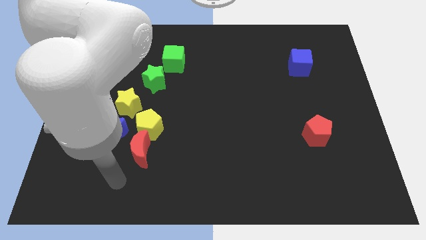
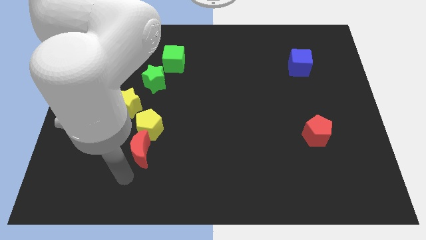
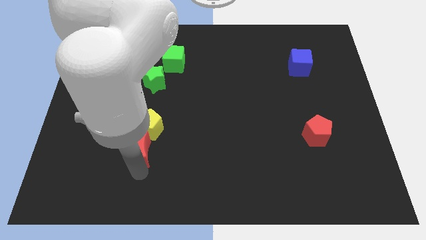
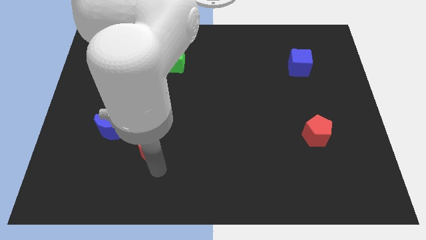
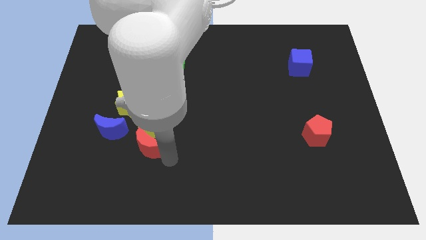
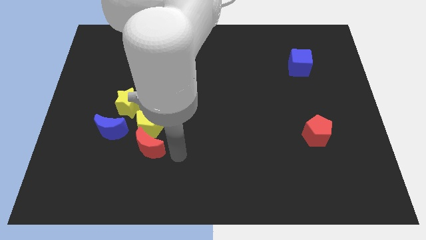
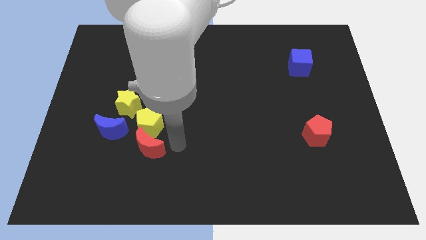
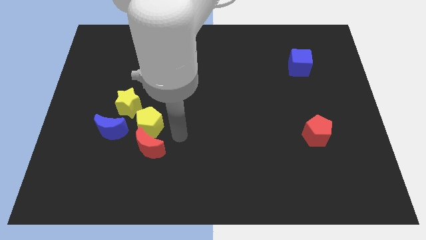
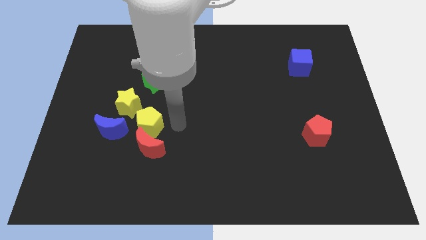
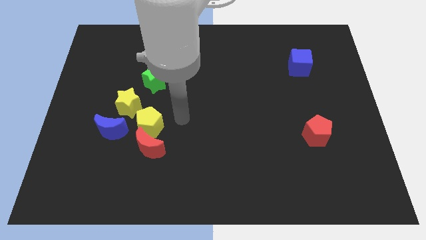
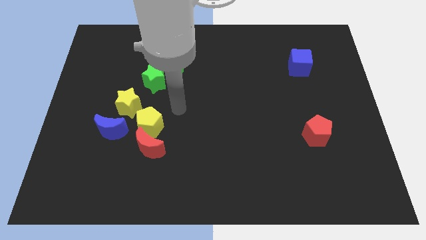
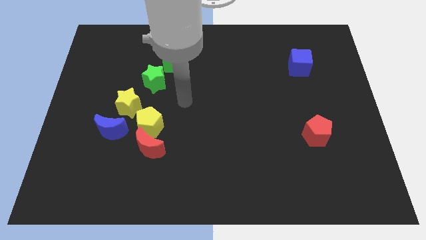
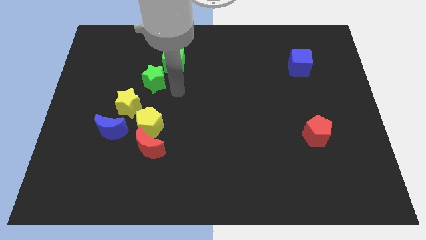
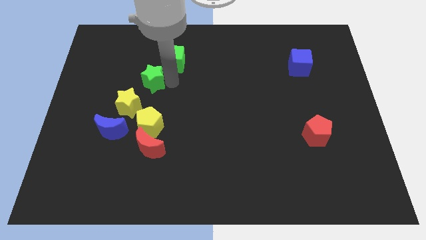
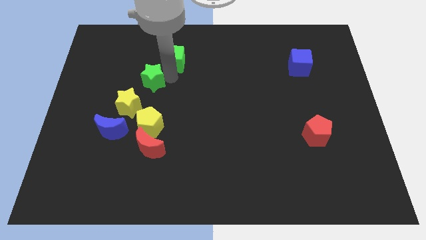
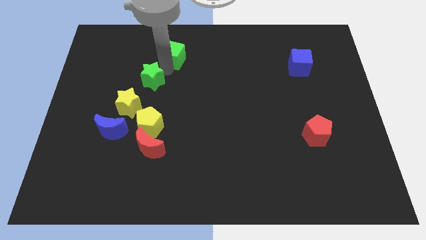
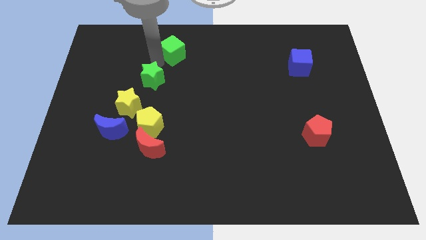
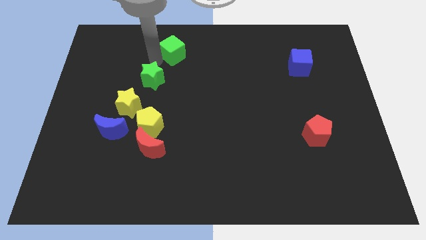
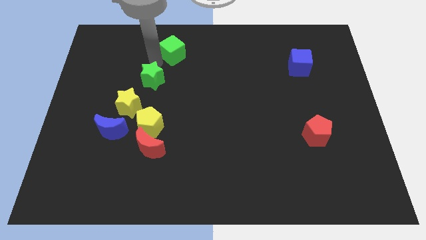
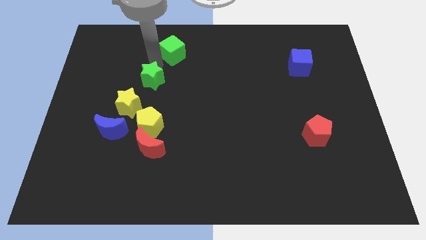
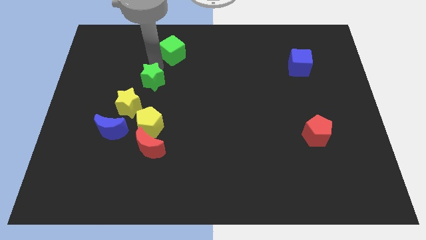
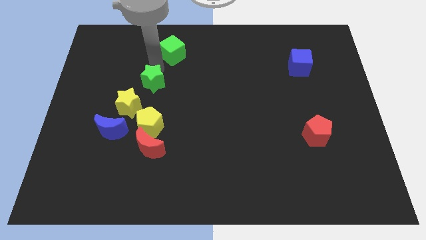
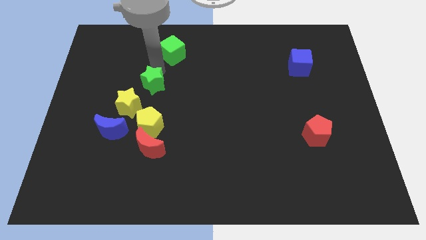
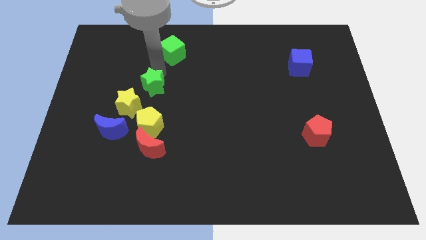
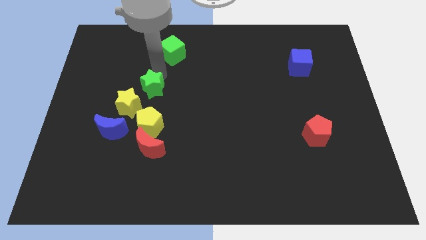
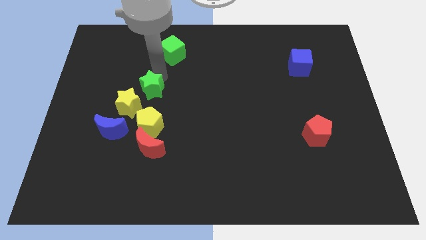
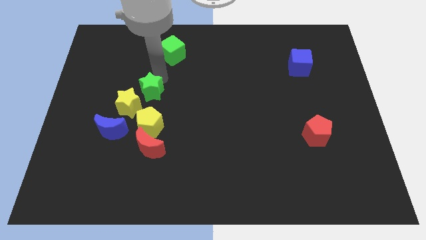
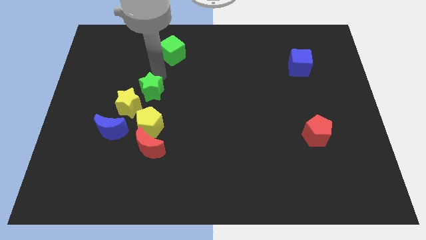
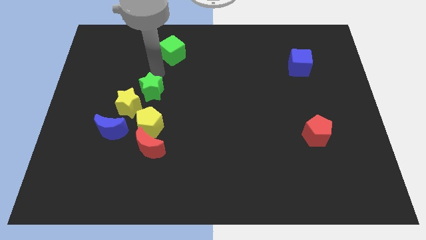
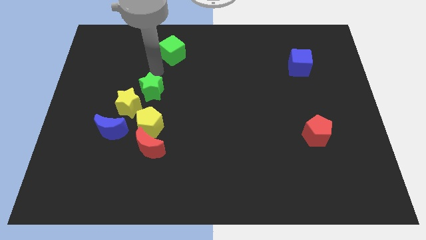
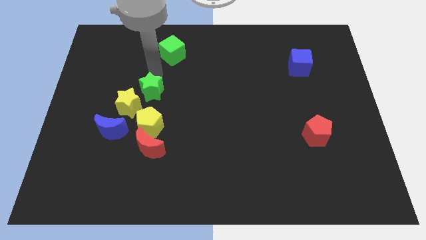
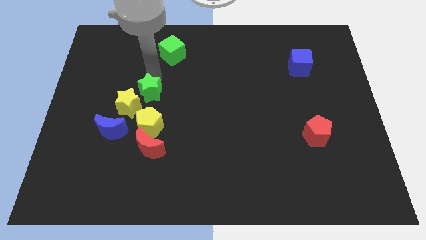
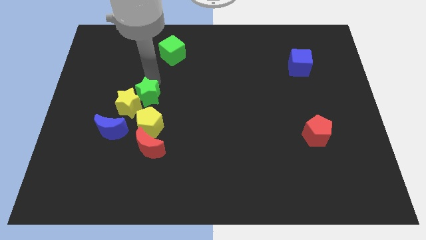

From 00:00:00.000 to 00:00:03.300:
move the green star to the top right of the blue moon

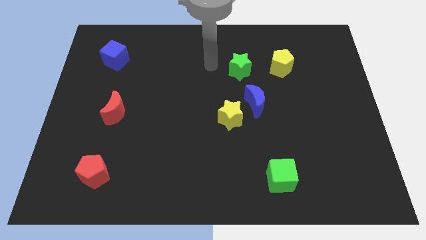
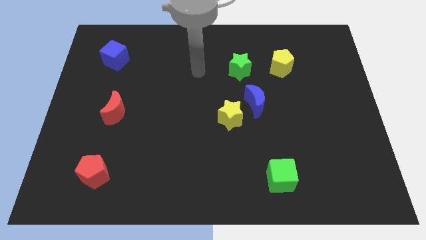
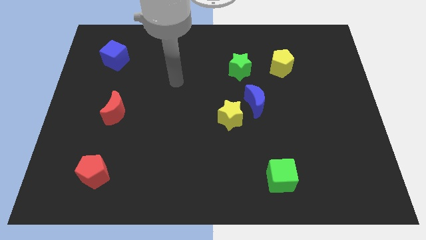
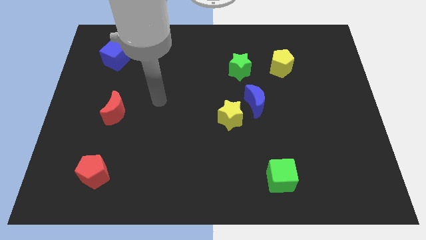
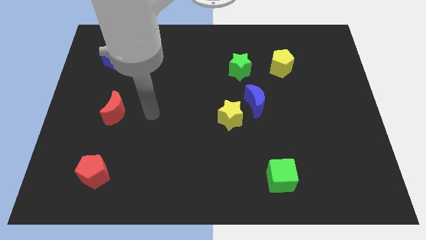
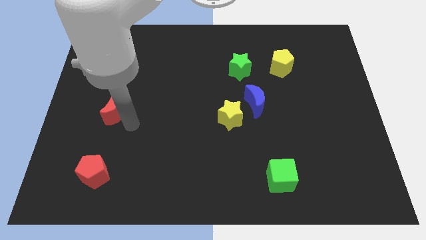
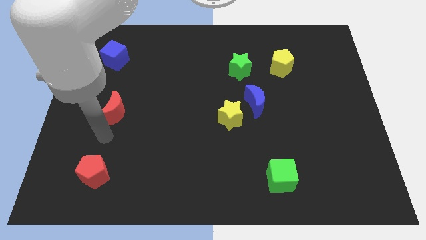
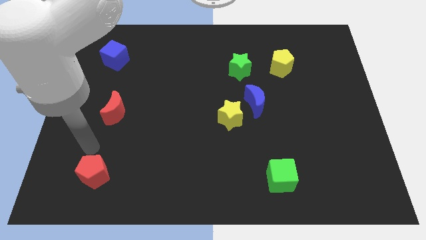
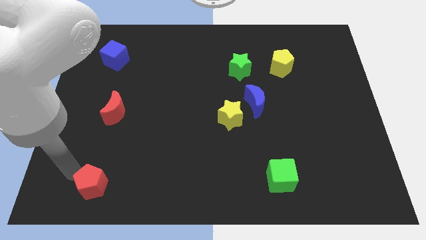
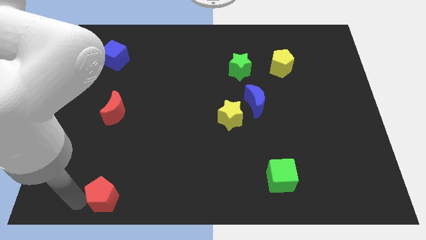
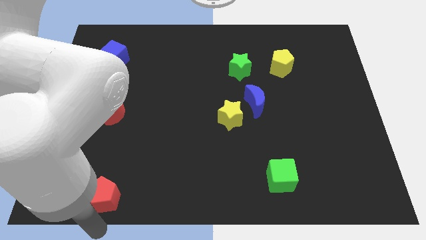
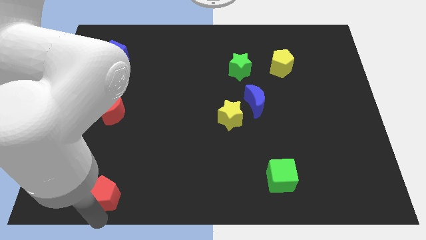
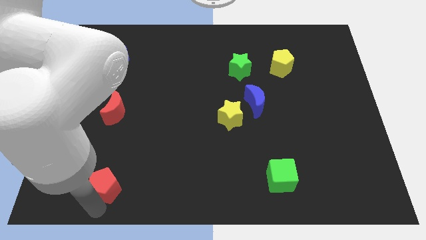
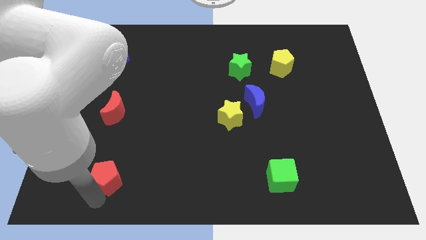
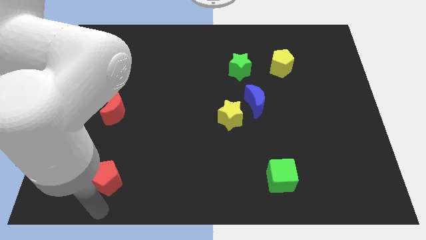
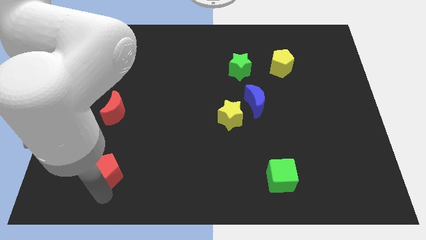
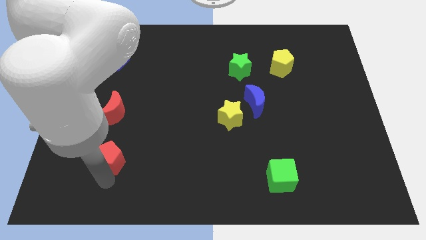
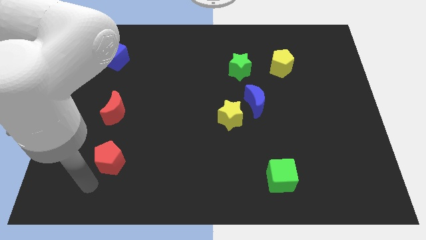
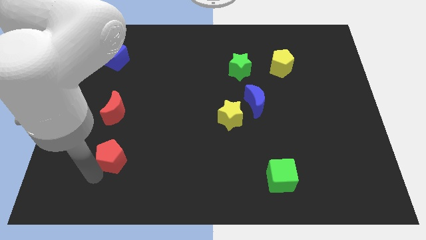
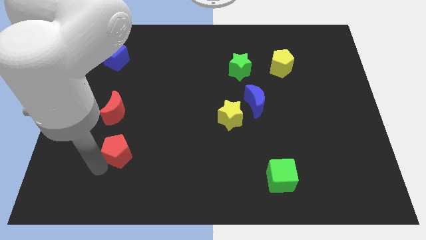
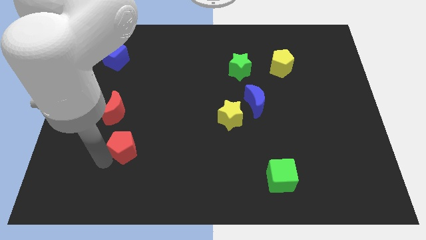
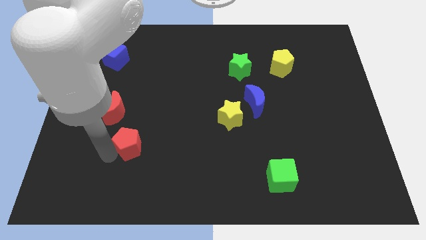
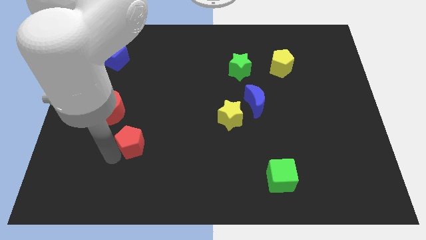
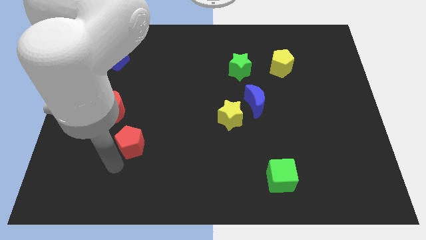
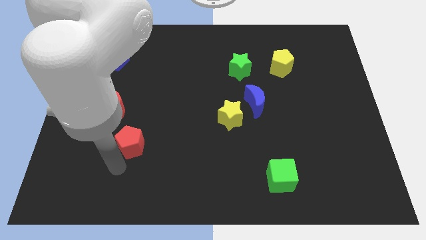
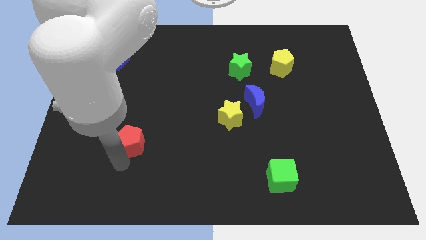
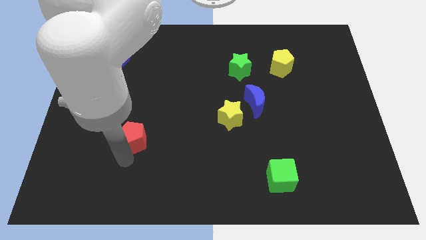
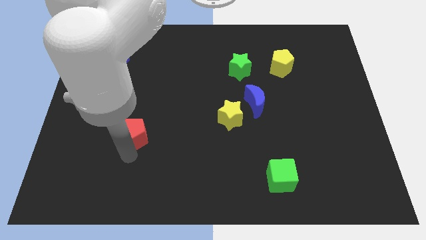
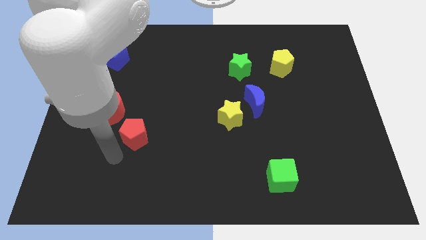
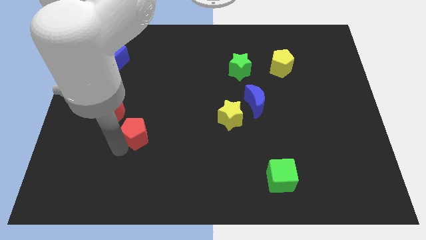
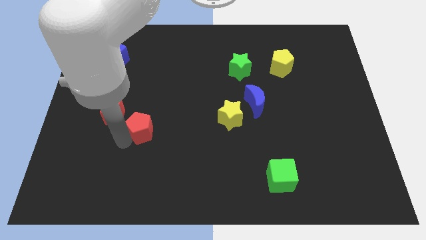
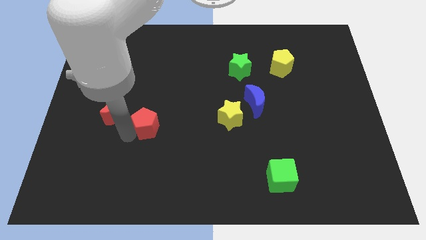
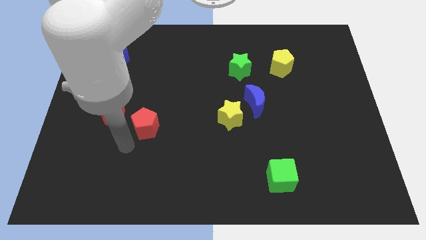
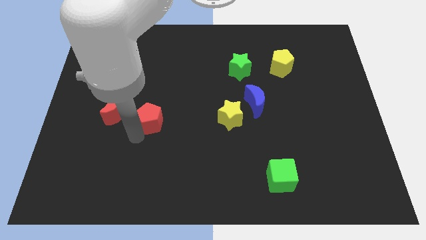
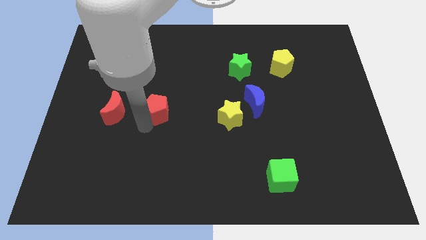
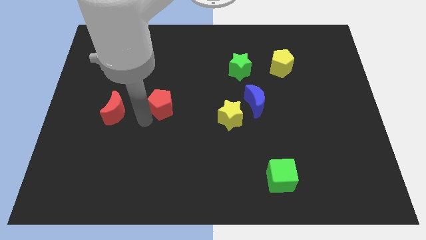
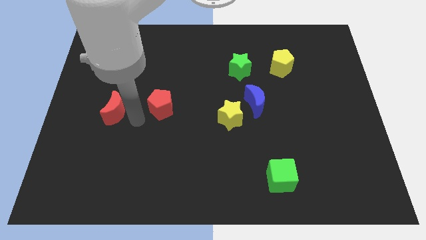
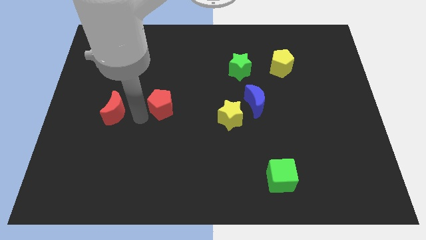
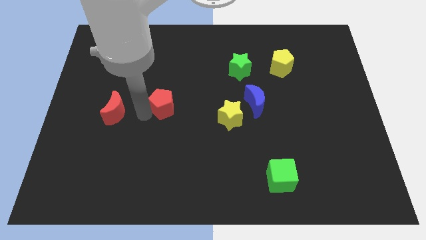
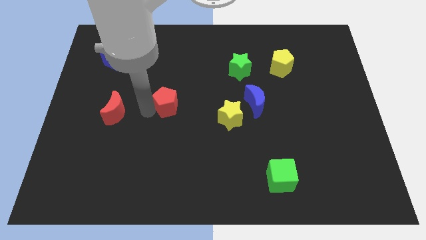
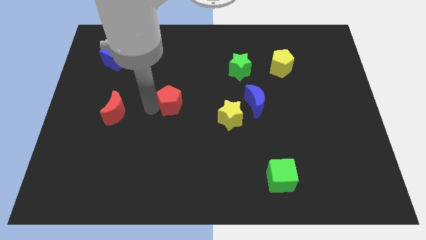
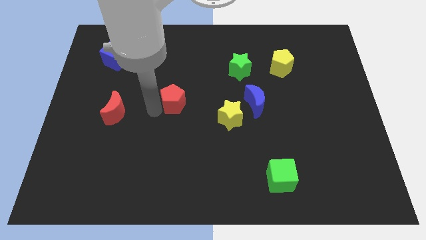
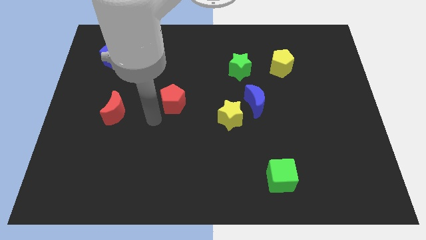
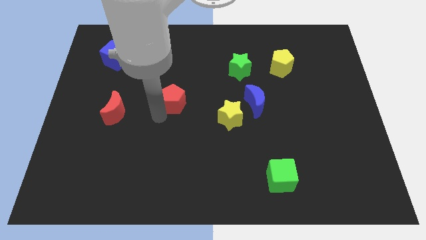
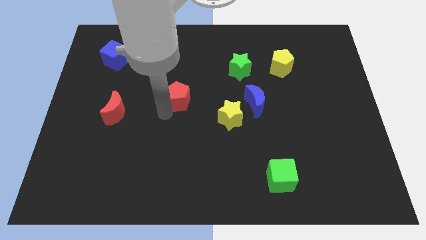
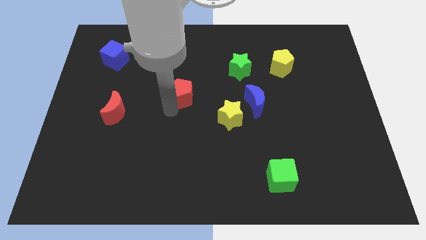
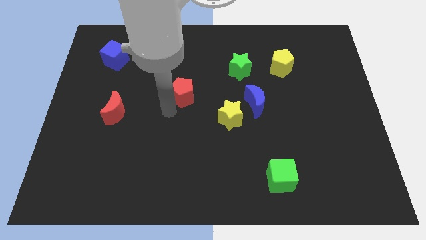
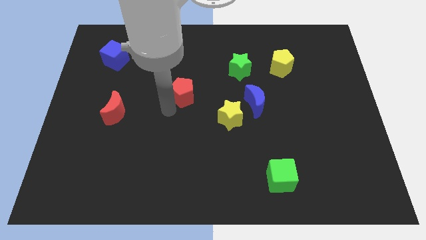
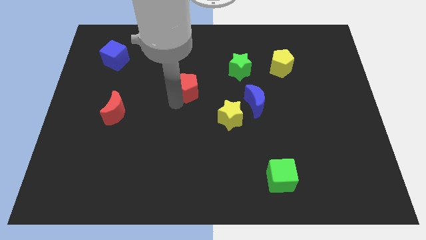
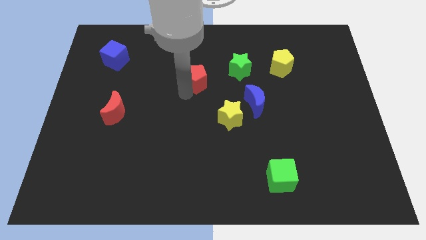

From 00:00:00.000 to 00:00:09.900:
put the red pentagon to the left side of the green star
